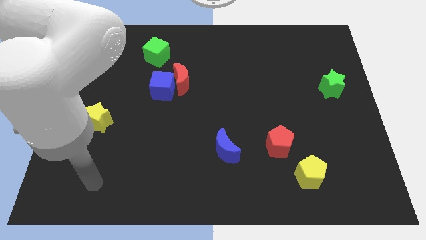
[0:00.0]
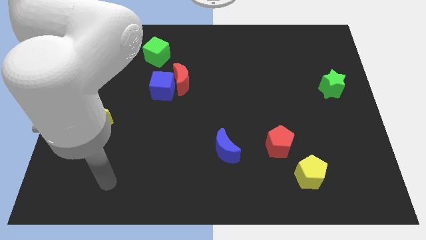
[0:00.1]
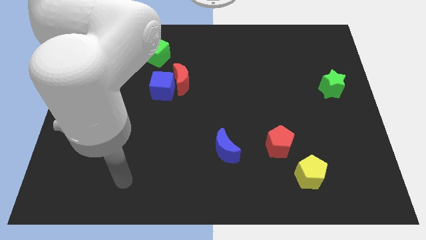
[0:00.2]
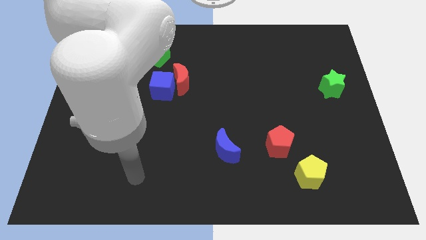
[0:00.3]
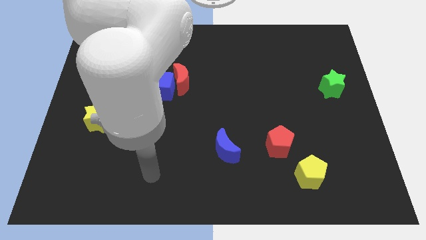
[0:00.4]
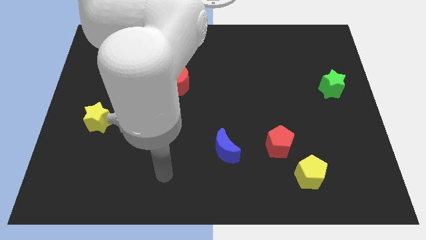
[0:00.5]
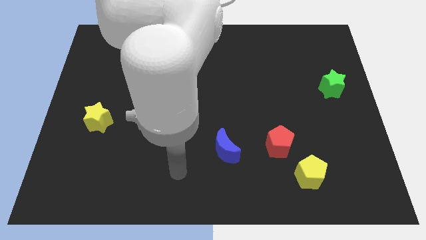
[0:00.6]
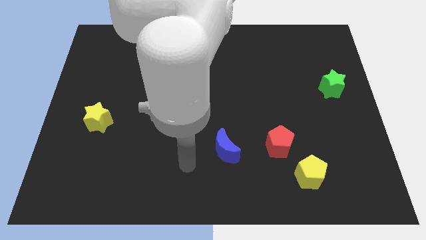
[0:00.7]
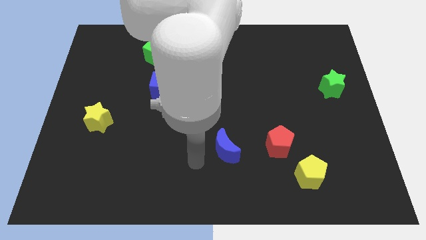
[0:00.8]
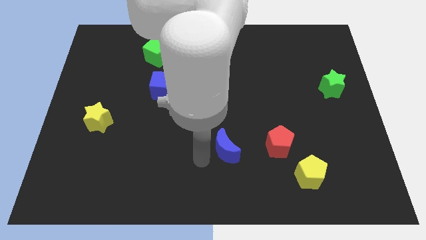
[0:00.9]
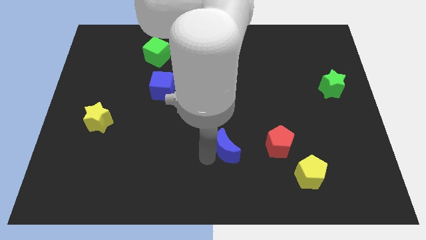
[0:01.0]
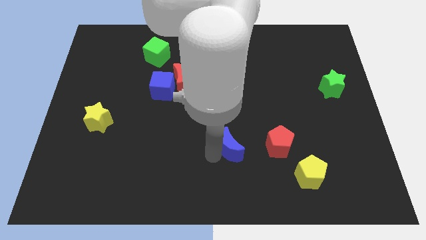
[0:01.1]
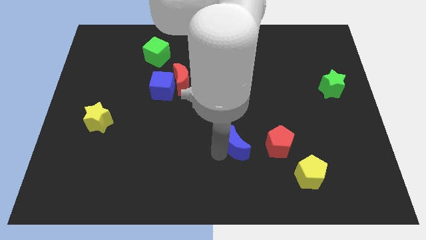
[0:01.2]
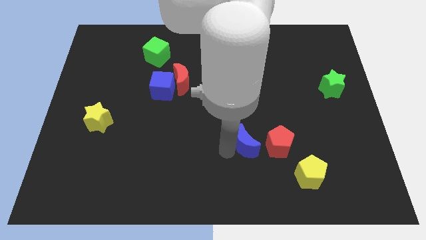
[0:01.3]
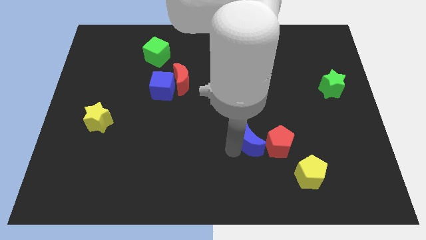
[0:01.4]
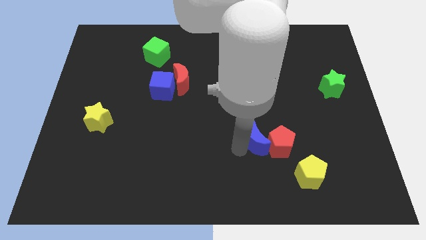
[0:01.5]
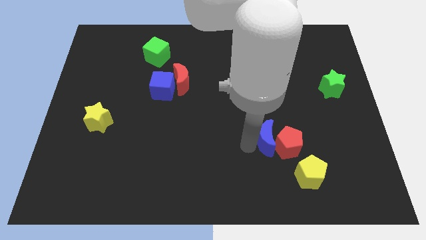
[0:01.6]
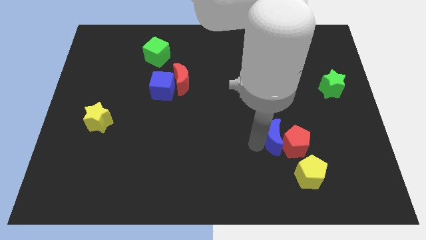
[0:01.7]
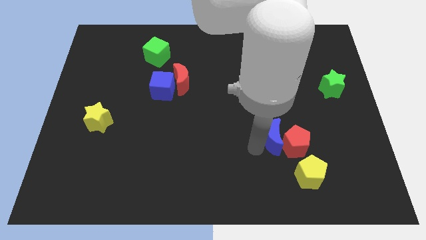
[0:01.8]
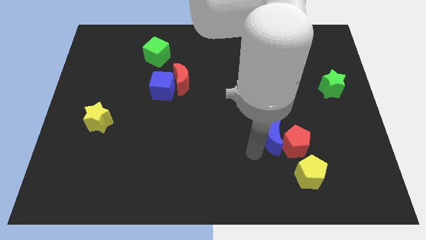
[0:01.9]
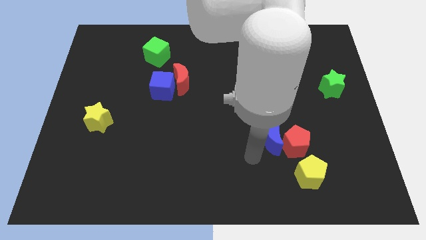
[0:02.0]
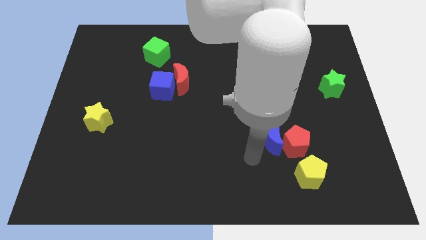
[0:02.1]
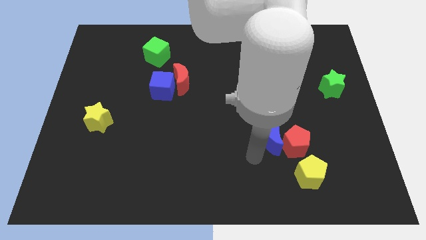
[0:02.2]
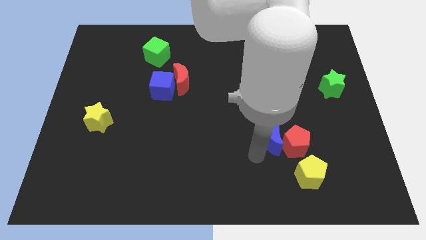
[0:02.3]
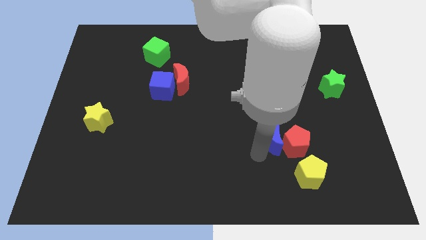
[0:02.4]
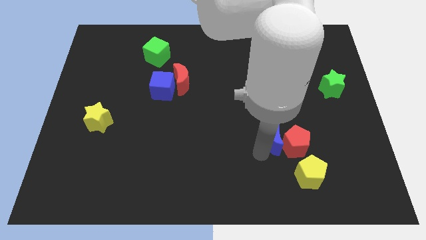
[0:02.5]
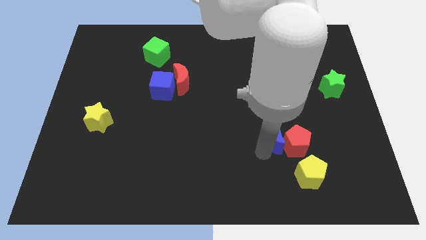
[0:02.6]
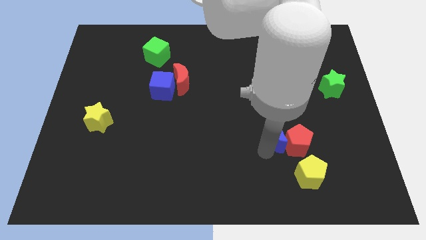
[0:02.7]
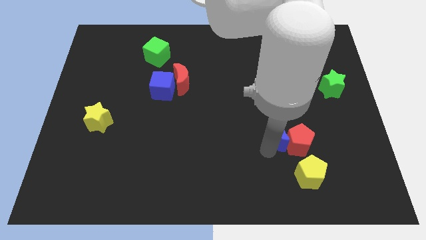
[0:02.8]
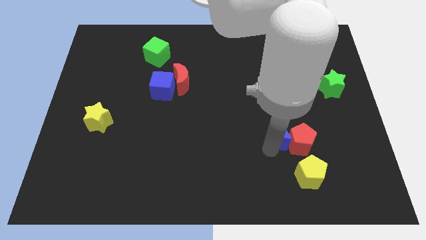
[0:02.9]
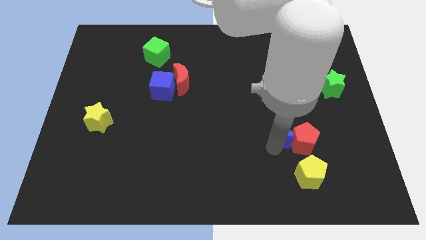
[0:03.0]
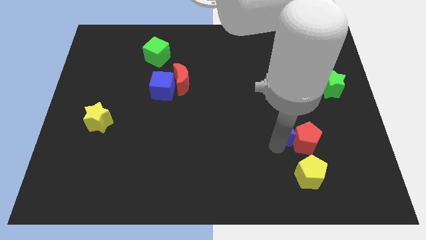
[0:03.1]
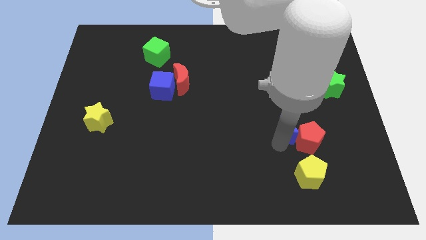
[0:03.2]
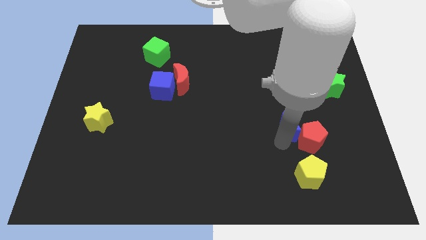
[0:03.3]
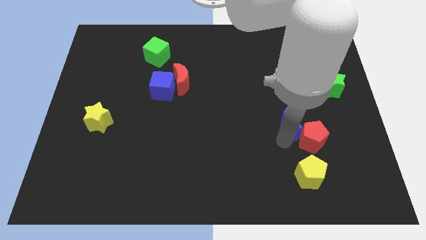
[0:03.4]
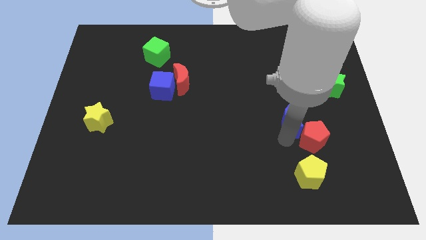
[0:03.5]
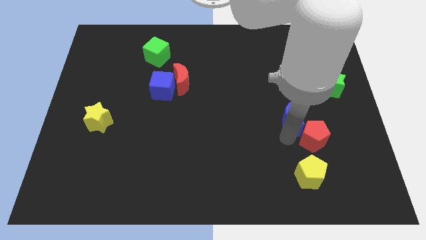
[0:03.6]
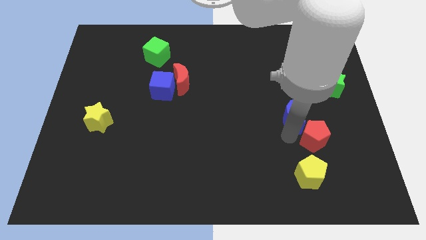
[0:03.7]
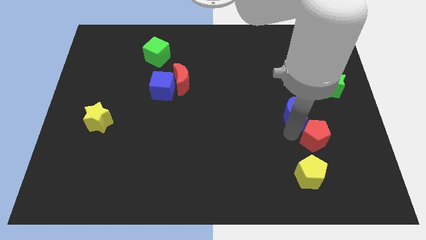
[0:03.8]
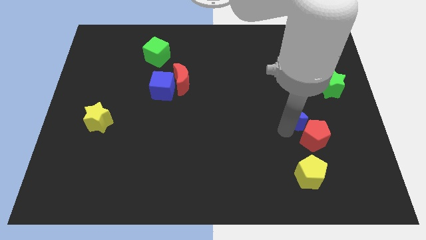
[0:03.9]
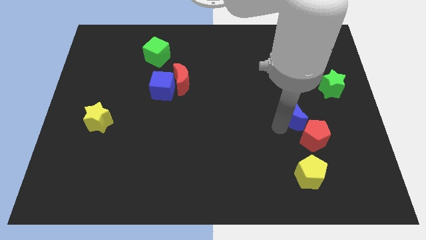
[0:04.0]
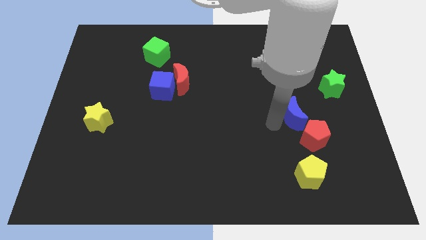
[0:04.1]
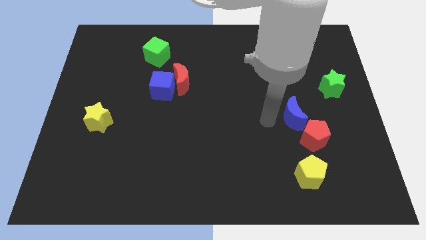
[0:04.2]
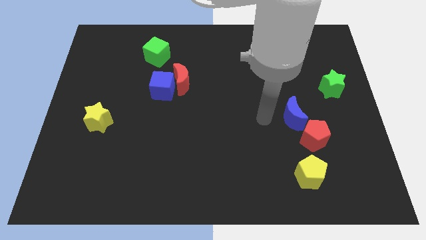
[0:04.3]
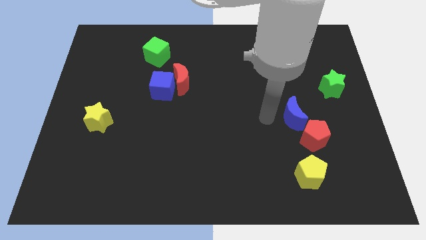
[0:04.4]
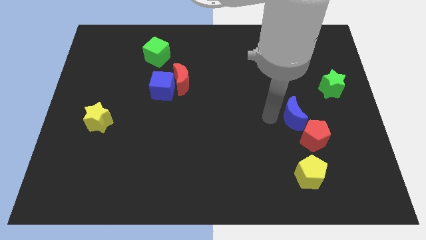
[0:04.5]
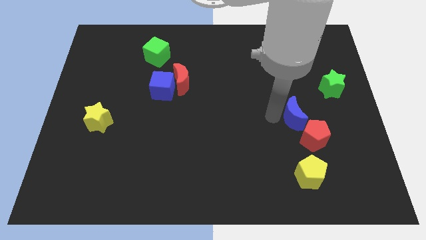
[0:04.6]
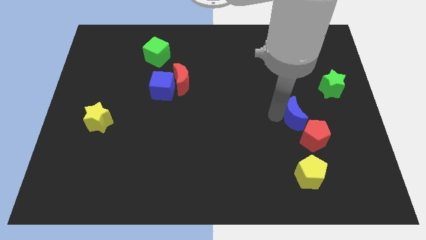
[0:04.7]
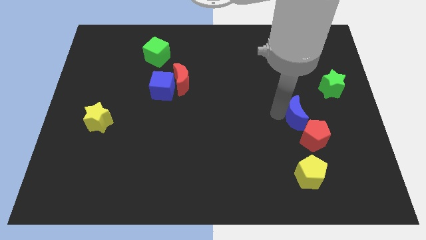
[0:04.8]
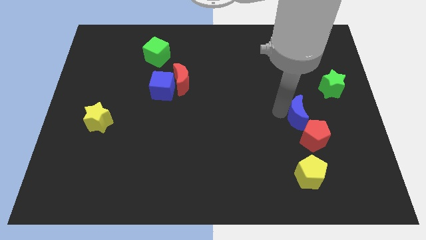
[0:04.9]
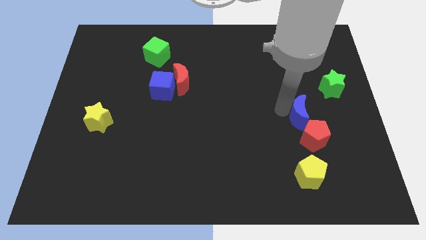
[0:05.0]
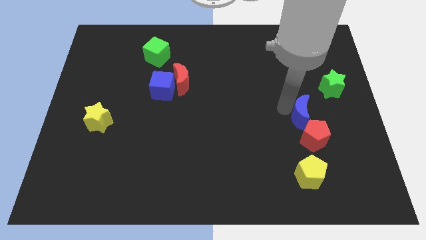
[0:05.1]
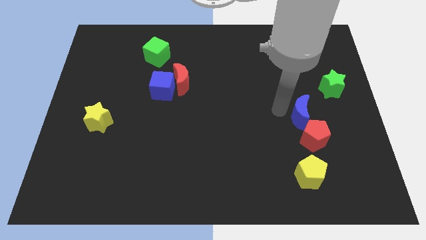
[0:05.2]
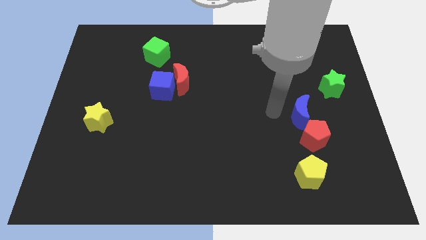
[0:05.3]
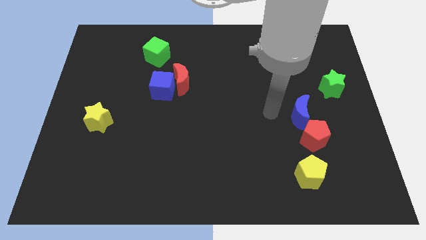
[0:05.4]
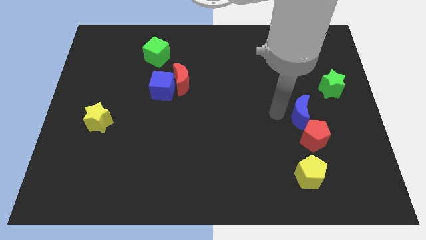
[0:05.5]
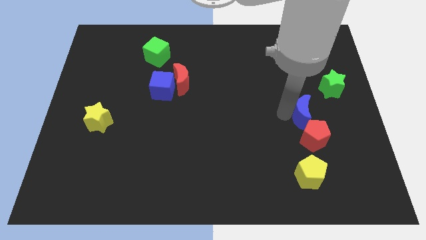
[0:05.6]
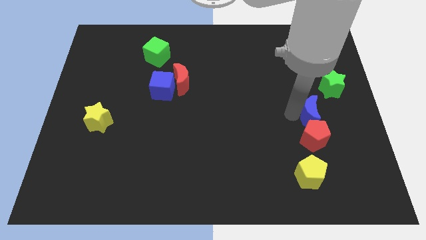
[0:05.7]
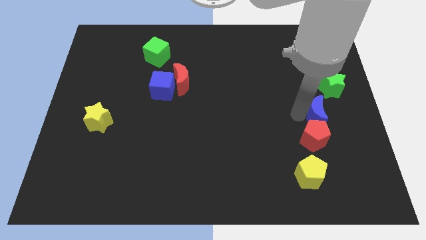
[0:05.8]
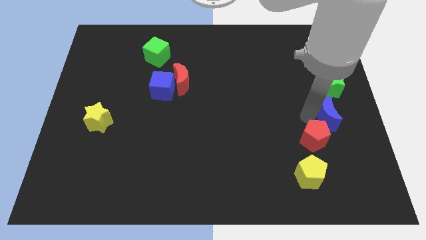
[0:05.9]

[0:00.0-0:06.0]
slide the blue moon to the center right

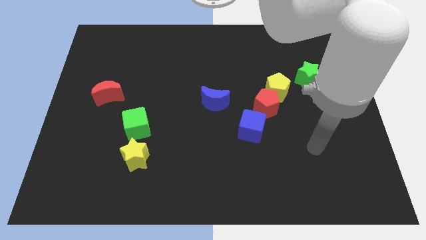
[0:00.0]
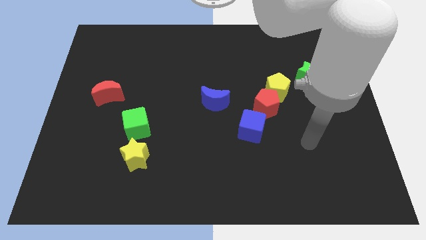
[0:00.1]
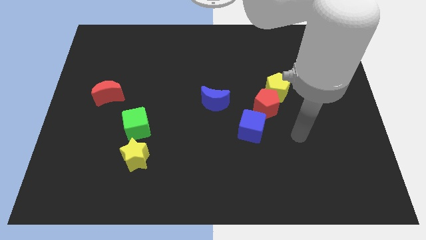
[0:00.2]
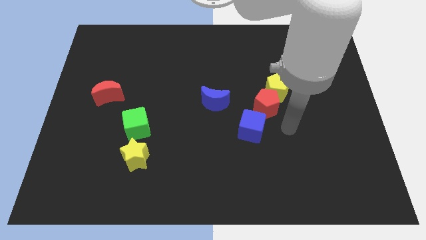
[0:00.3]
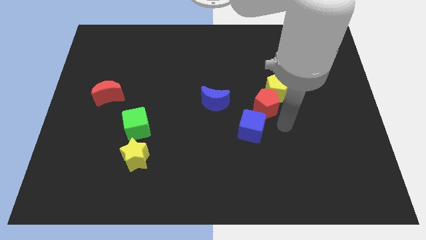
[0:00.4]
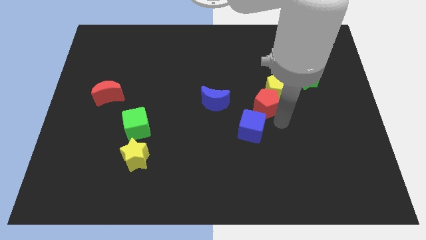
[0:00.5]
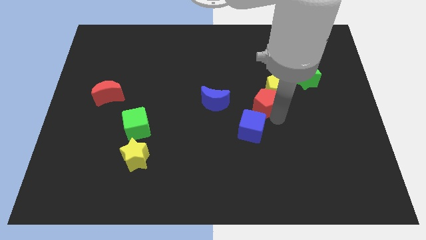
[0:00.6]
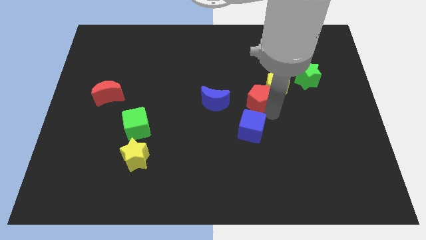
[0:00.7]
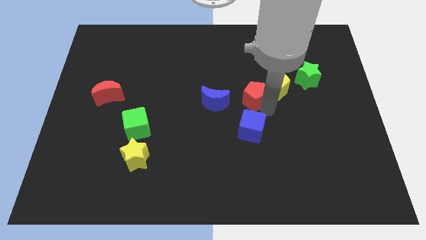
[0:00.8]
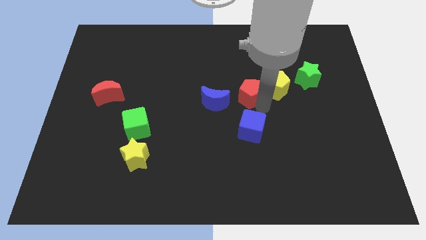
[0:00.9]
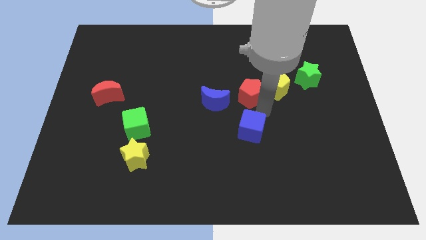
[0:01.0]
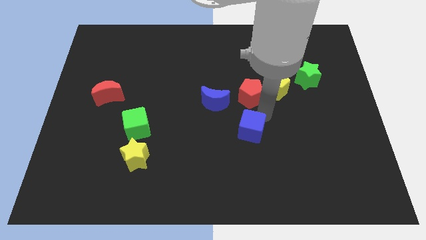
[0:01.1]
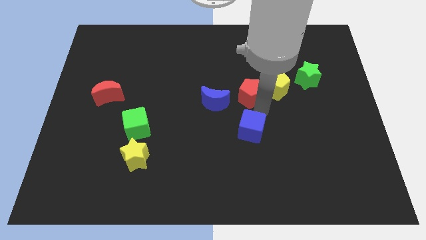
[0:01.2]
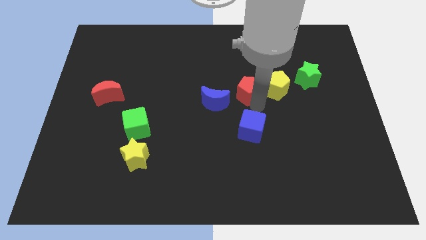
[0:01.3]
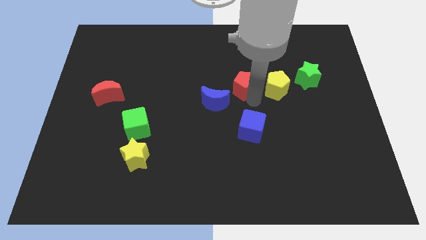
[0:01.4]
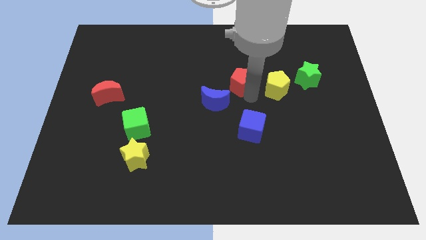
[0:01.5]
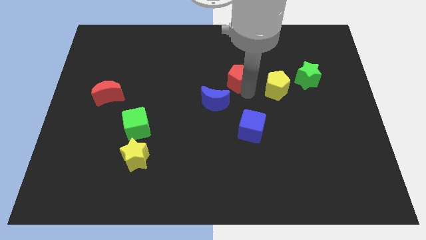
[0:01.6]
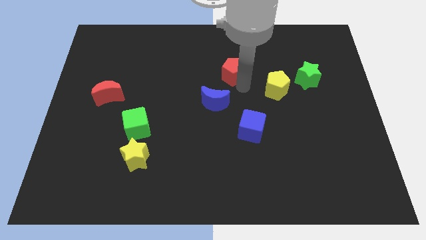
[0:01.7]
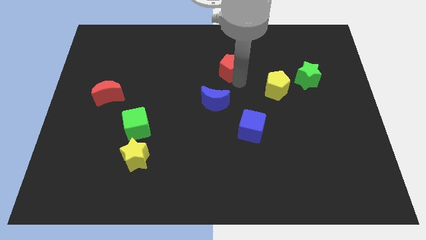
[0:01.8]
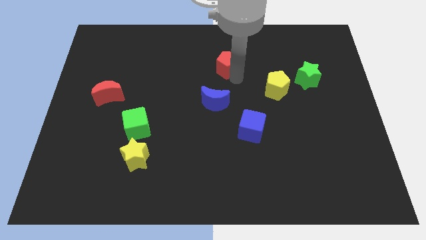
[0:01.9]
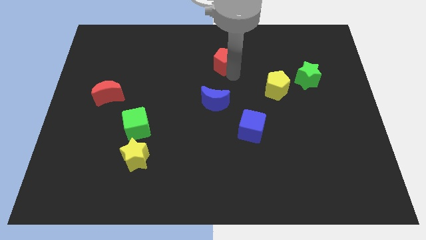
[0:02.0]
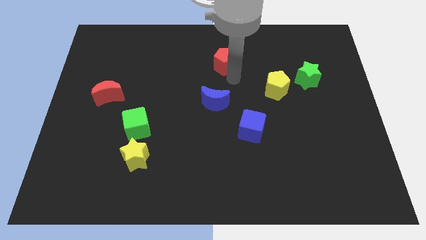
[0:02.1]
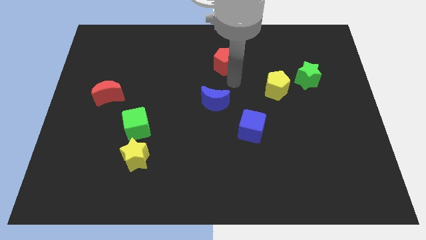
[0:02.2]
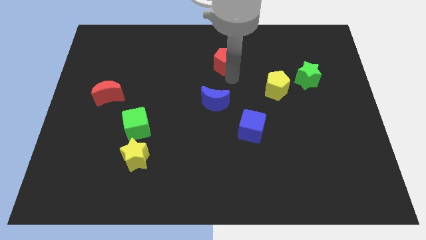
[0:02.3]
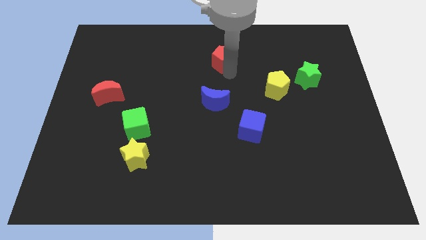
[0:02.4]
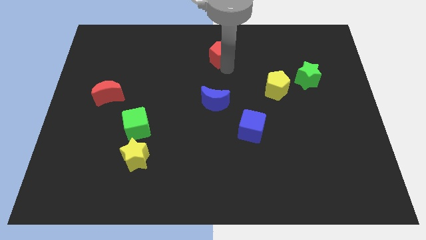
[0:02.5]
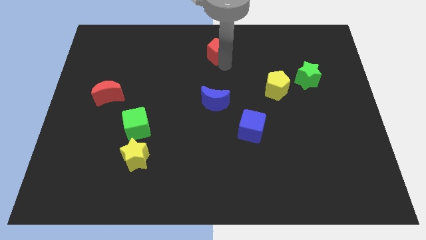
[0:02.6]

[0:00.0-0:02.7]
slide the red pentagon to the towards your base
